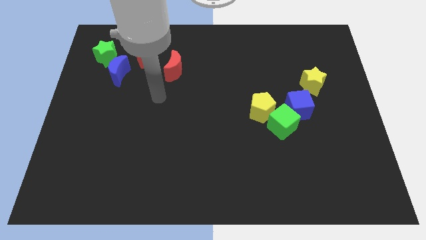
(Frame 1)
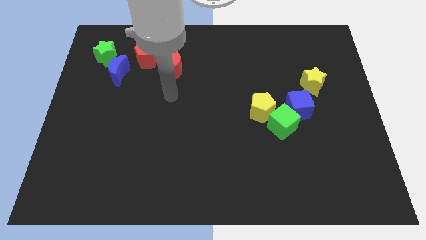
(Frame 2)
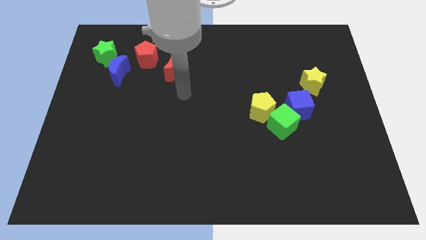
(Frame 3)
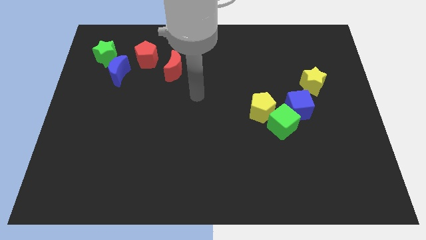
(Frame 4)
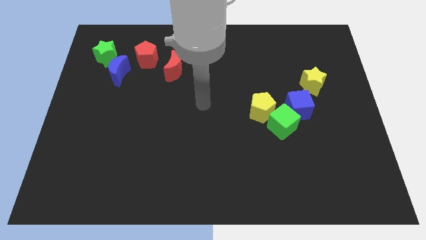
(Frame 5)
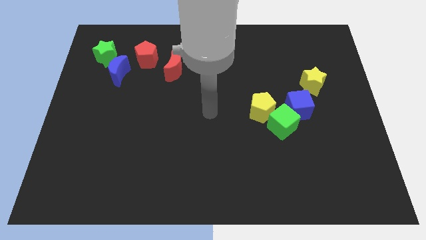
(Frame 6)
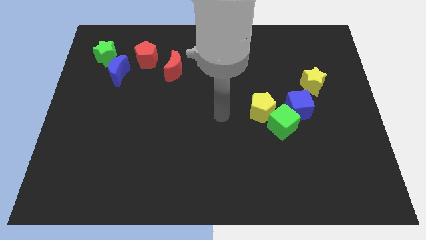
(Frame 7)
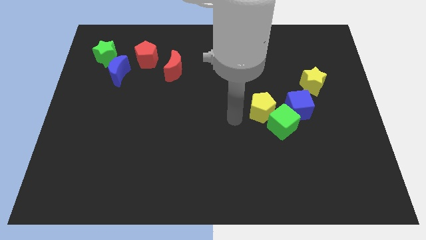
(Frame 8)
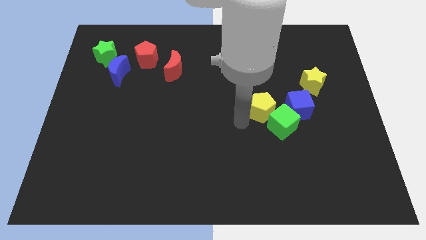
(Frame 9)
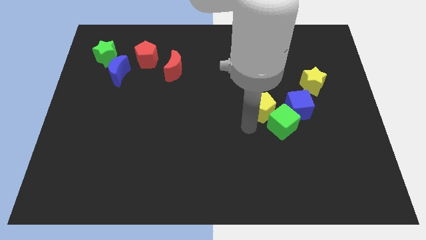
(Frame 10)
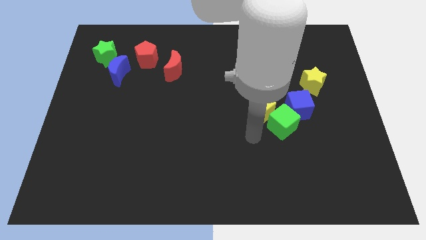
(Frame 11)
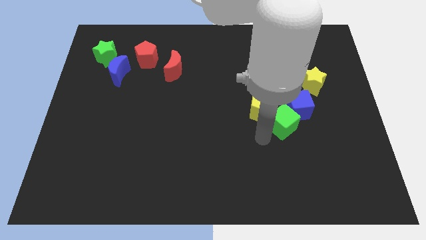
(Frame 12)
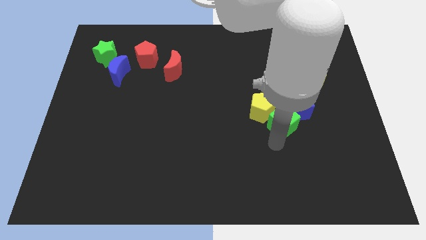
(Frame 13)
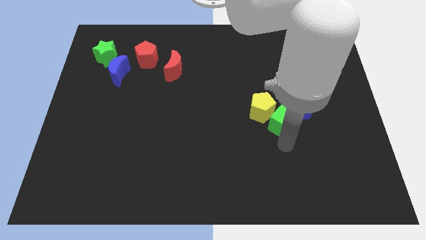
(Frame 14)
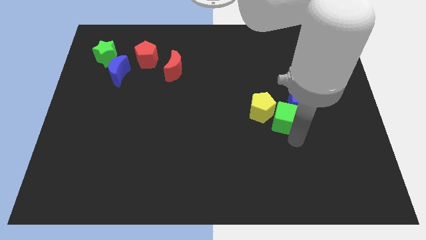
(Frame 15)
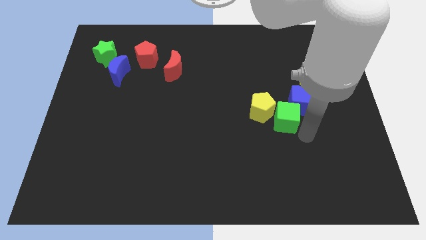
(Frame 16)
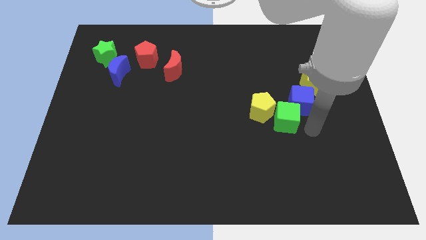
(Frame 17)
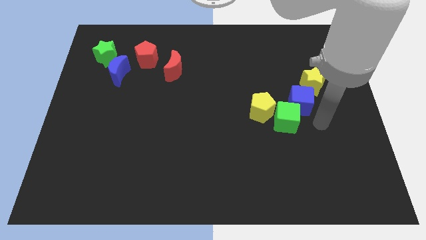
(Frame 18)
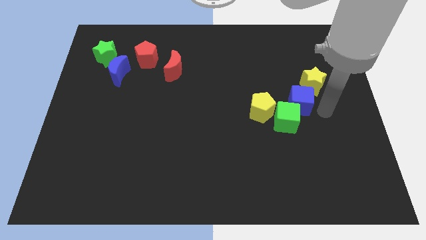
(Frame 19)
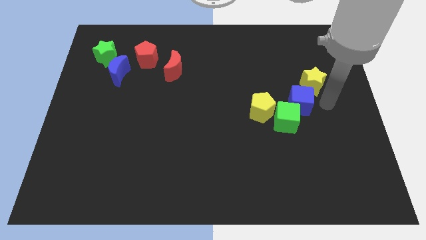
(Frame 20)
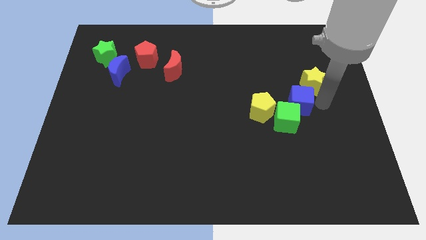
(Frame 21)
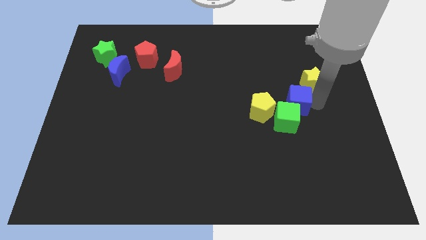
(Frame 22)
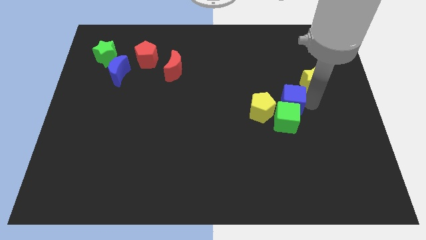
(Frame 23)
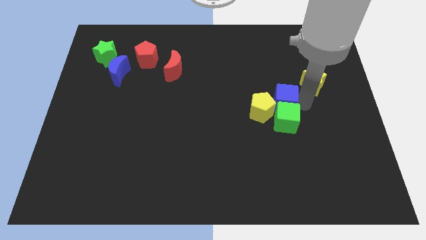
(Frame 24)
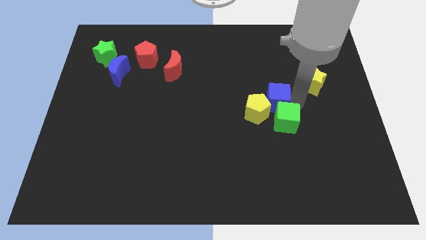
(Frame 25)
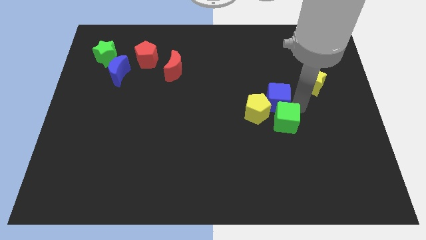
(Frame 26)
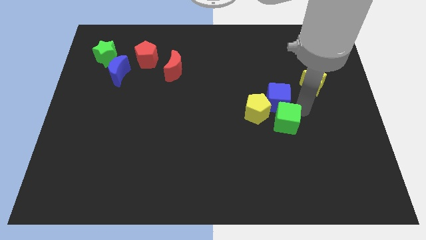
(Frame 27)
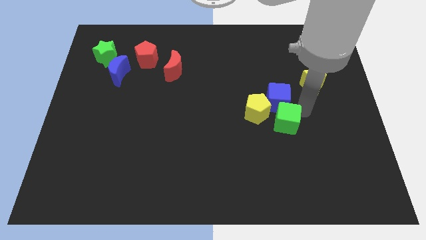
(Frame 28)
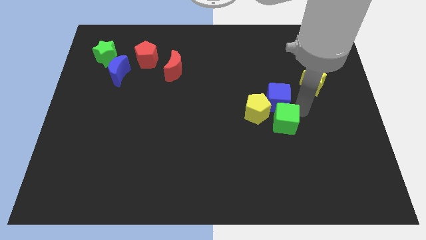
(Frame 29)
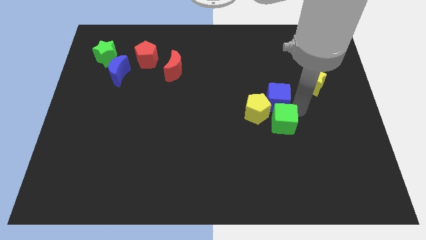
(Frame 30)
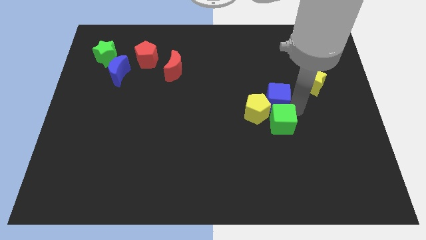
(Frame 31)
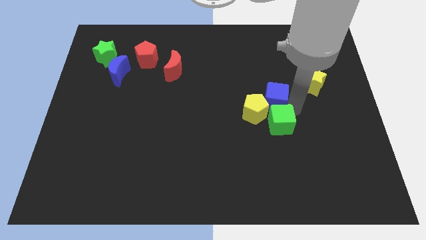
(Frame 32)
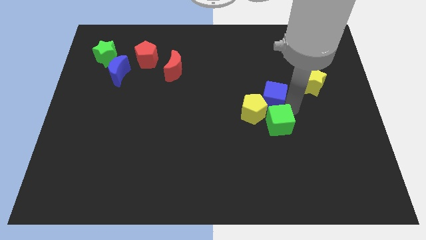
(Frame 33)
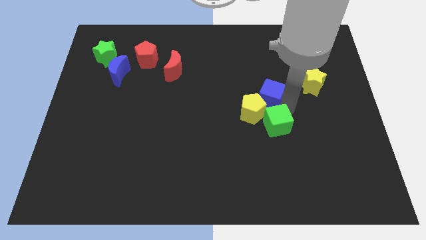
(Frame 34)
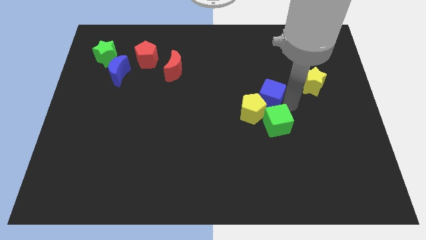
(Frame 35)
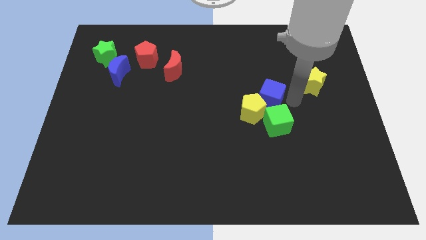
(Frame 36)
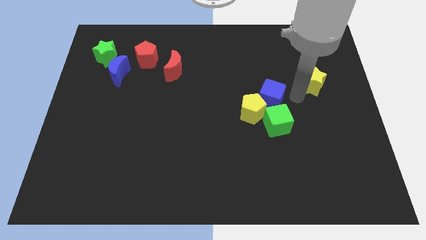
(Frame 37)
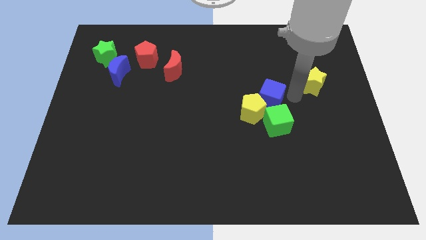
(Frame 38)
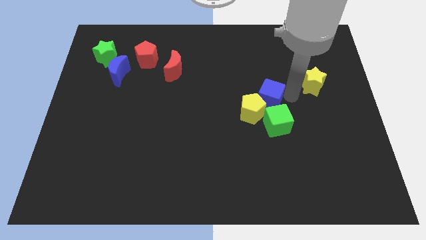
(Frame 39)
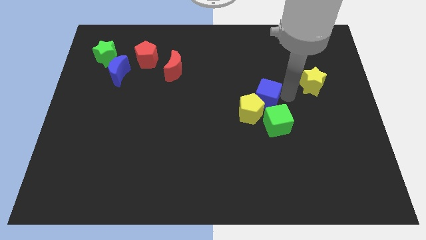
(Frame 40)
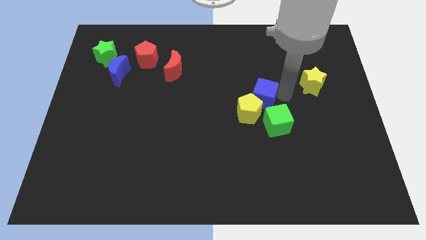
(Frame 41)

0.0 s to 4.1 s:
slightly slide the blue cube to the left

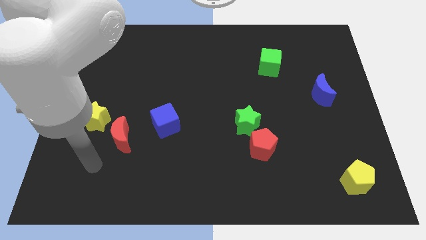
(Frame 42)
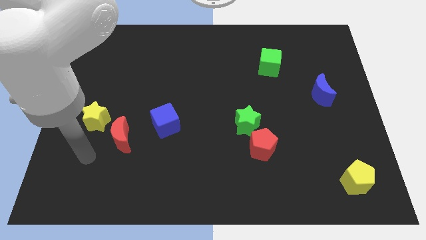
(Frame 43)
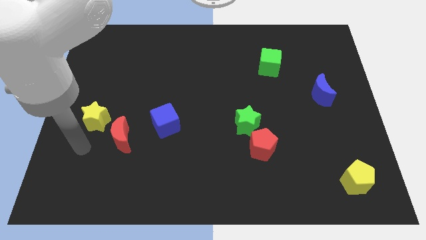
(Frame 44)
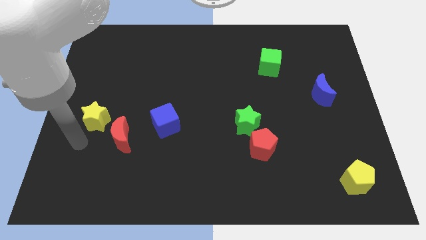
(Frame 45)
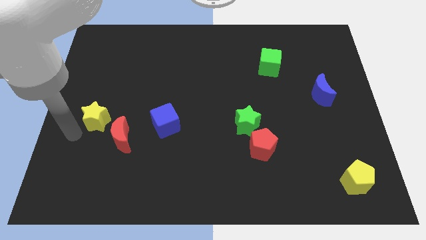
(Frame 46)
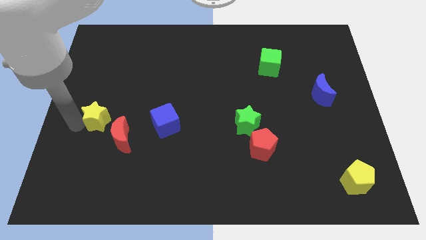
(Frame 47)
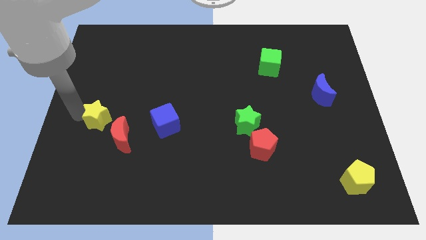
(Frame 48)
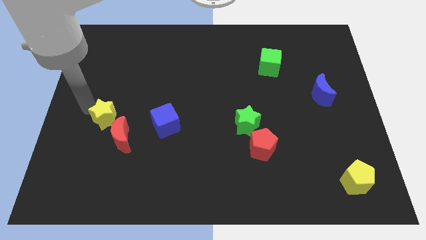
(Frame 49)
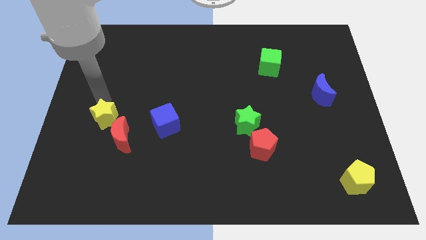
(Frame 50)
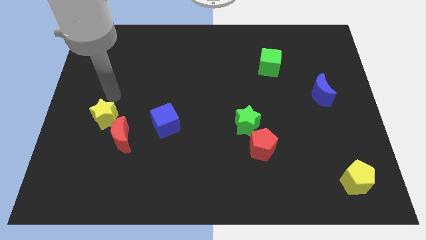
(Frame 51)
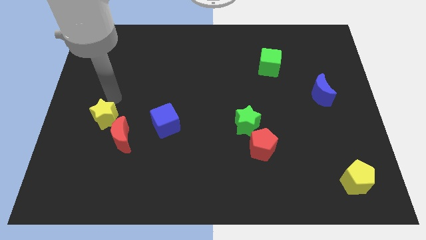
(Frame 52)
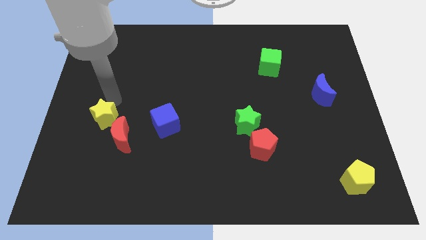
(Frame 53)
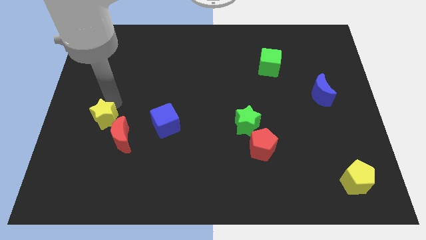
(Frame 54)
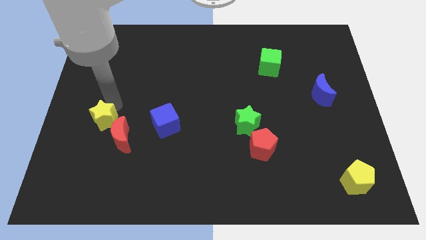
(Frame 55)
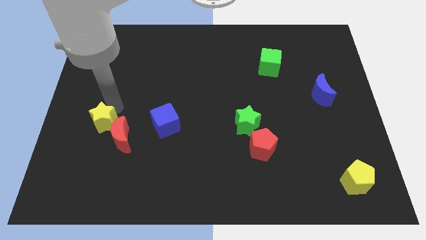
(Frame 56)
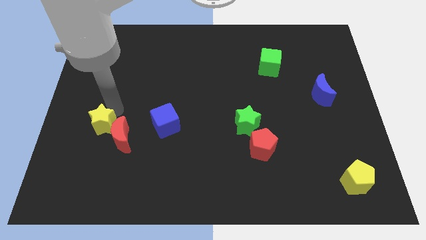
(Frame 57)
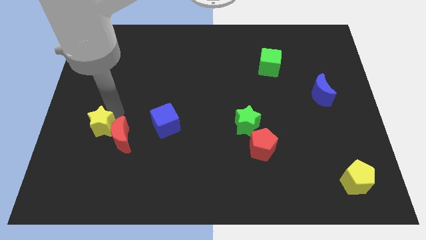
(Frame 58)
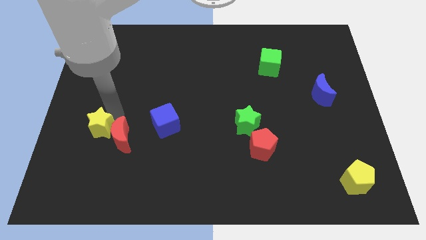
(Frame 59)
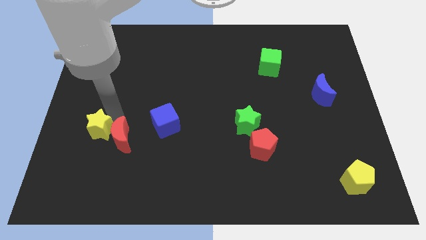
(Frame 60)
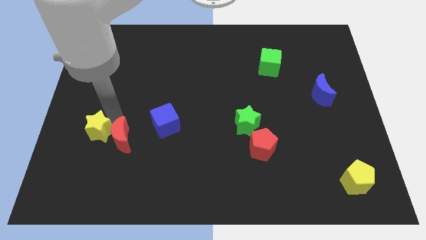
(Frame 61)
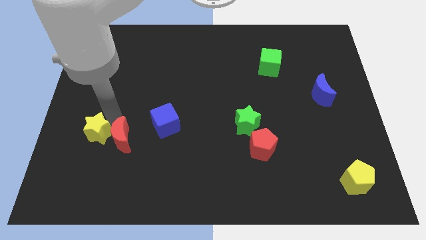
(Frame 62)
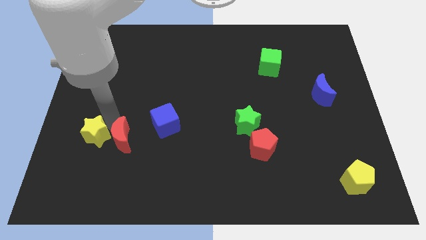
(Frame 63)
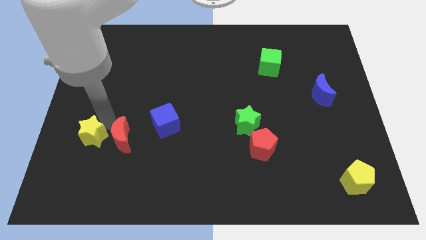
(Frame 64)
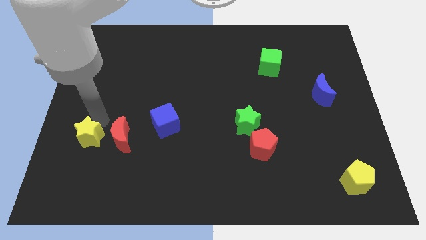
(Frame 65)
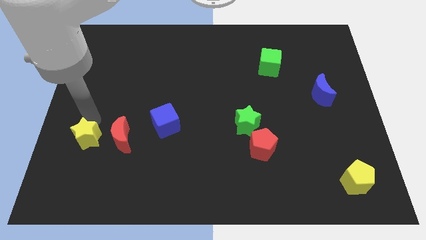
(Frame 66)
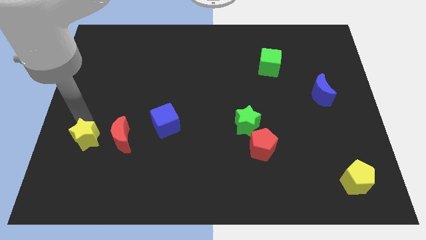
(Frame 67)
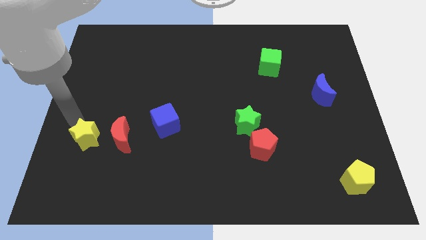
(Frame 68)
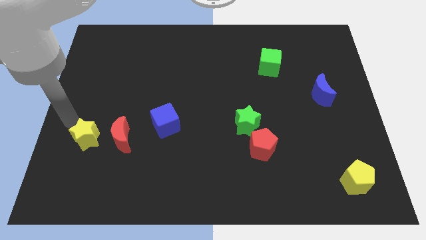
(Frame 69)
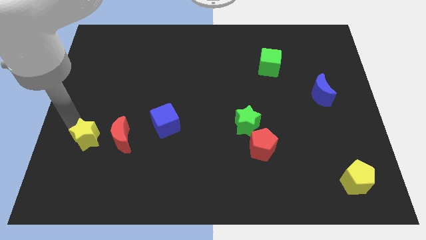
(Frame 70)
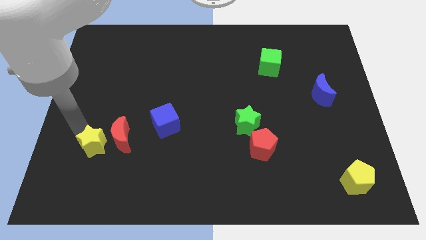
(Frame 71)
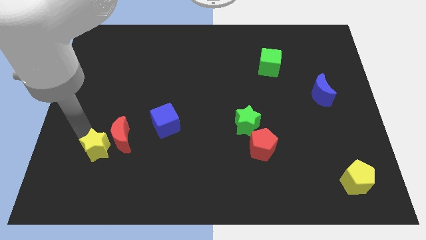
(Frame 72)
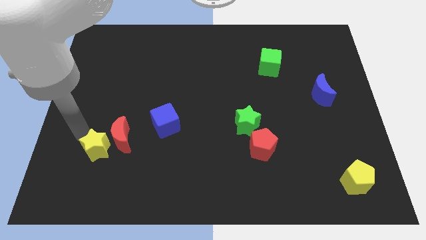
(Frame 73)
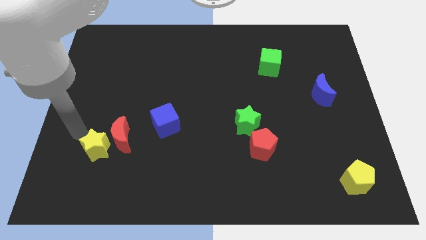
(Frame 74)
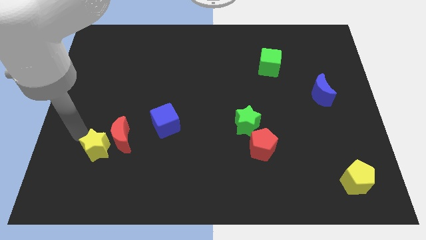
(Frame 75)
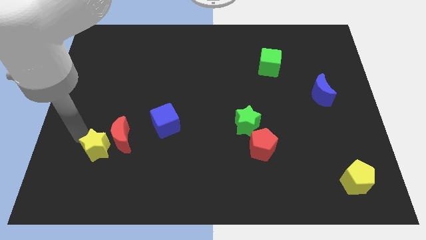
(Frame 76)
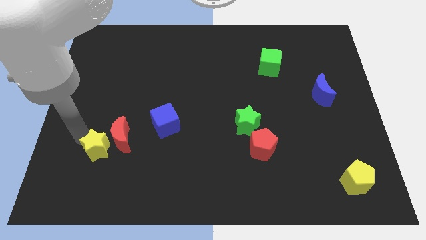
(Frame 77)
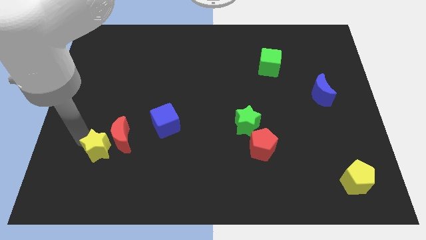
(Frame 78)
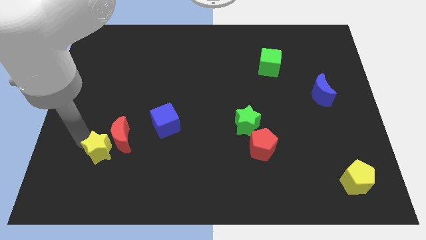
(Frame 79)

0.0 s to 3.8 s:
move the yellow star down and then to the right slightly

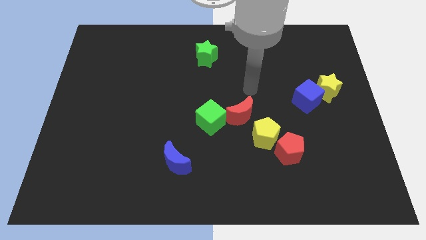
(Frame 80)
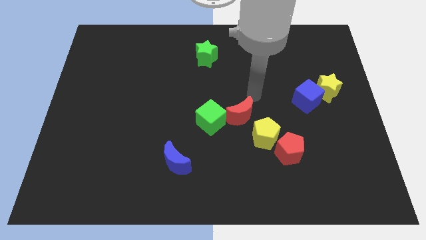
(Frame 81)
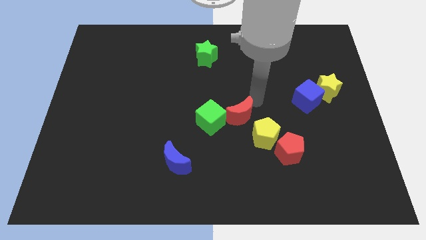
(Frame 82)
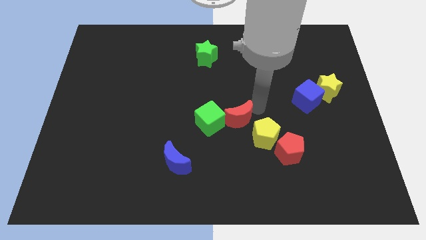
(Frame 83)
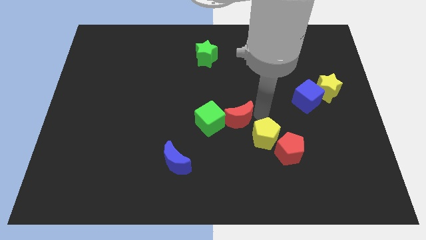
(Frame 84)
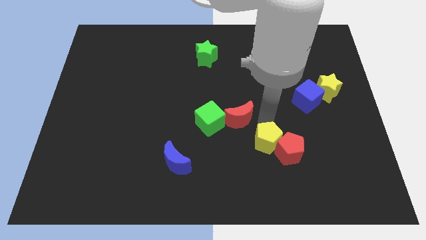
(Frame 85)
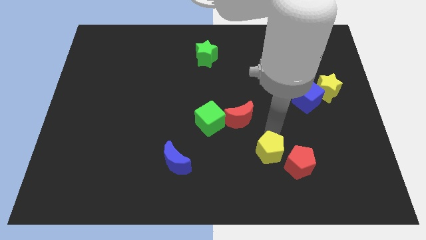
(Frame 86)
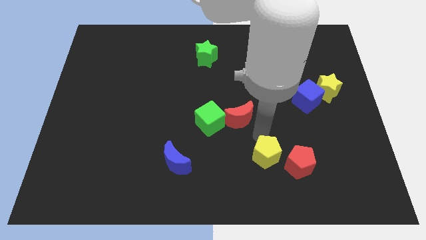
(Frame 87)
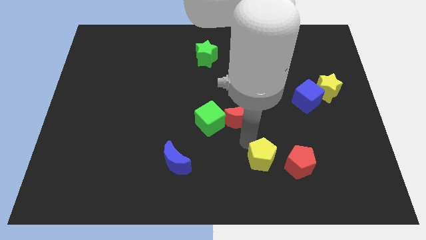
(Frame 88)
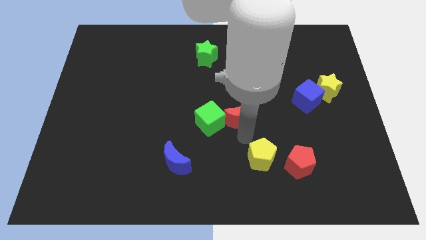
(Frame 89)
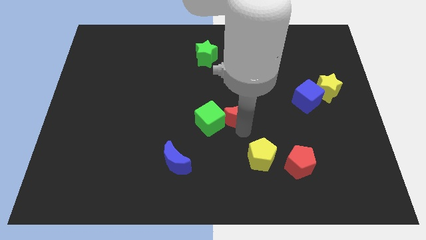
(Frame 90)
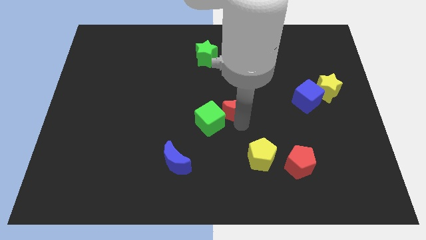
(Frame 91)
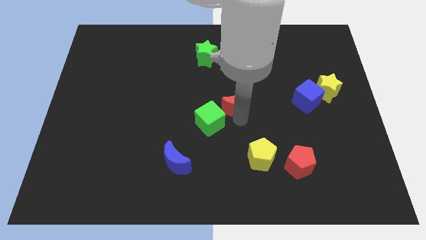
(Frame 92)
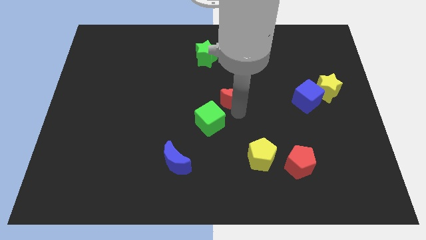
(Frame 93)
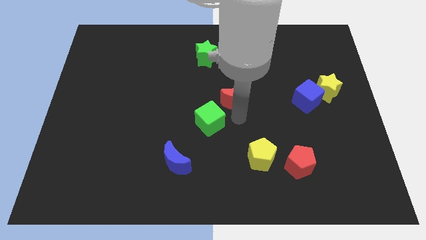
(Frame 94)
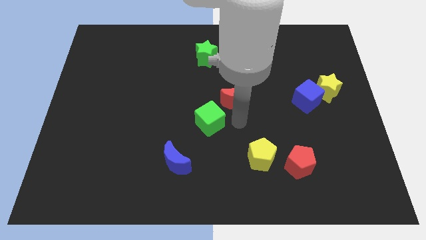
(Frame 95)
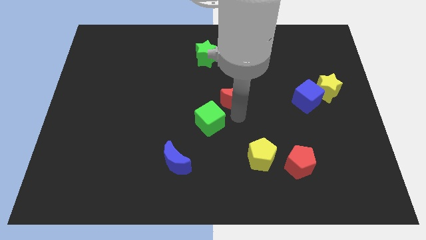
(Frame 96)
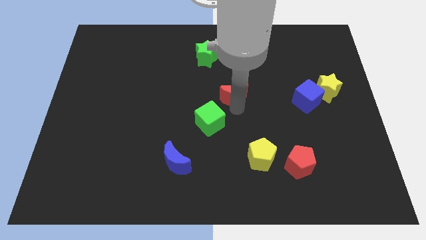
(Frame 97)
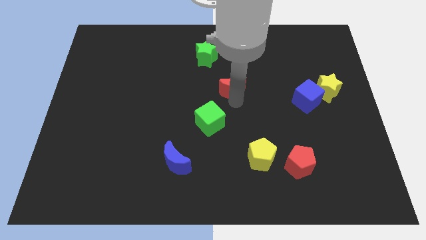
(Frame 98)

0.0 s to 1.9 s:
slightly push the red moon upwards
